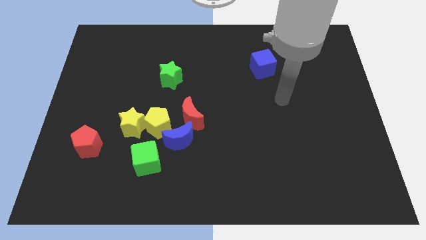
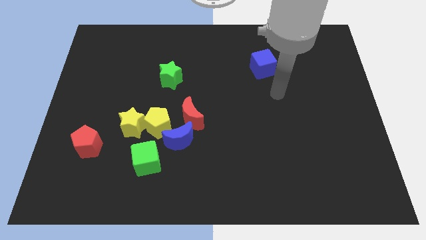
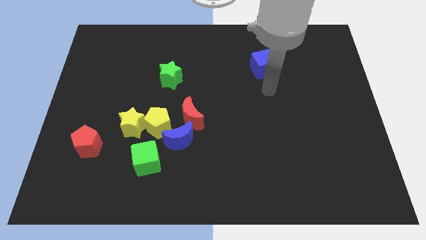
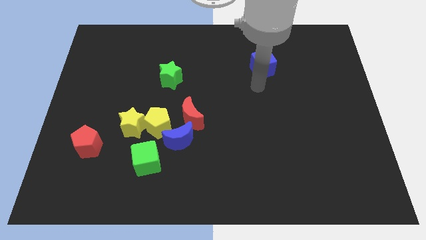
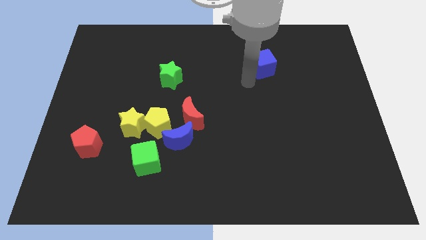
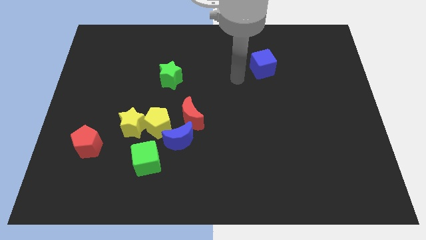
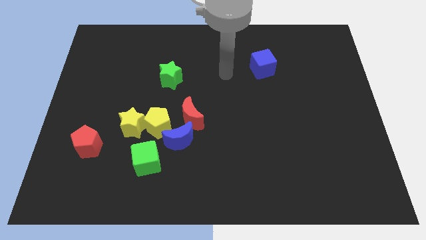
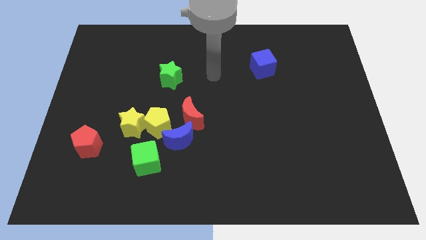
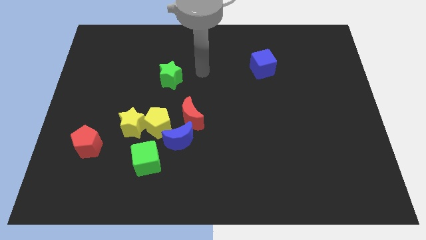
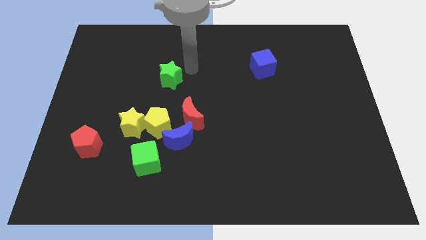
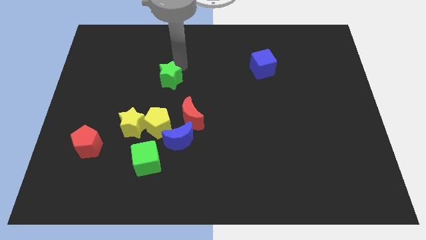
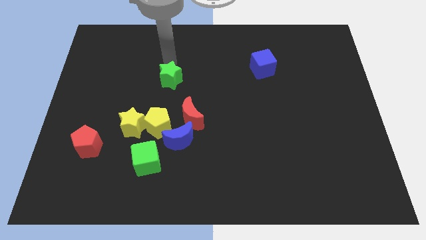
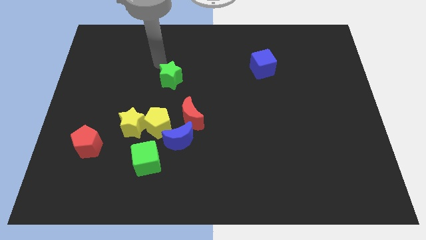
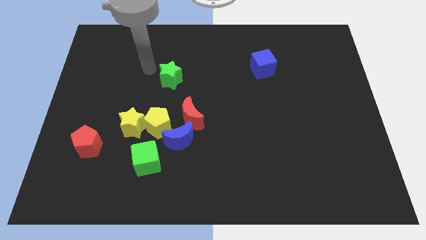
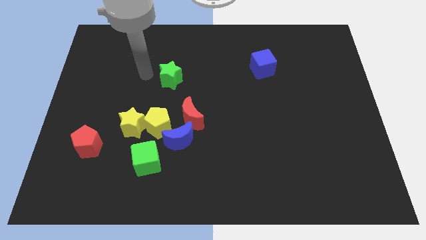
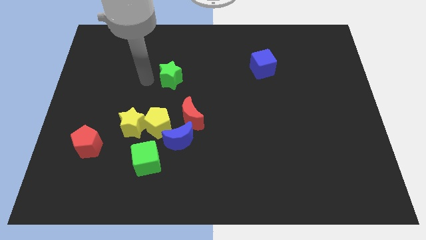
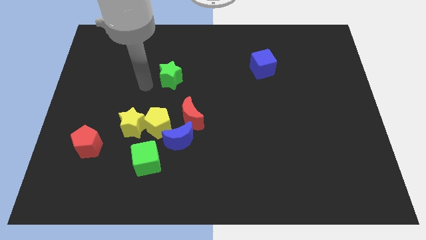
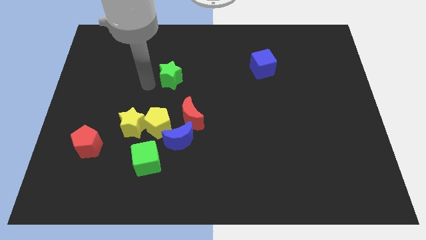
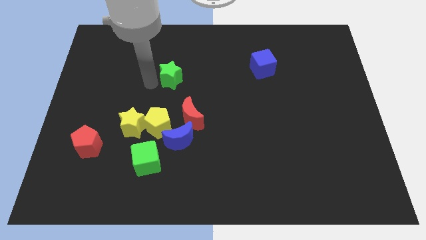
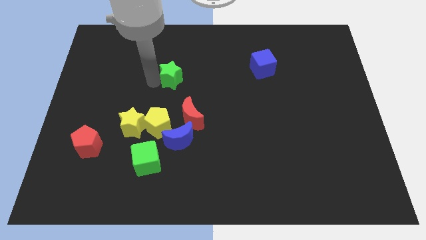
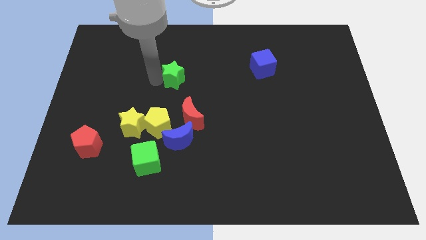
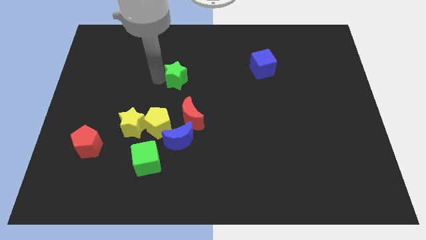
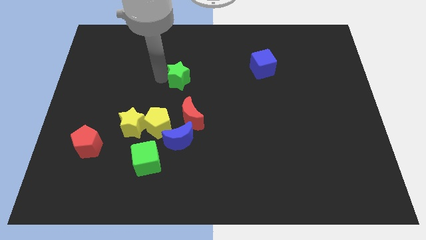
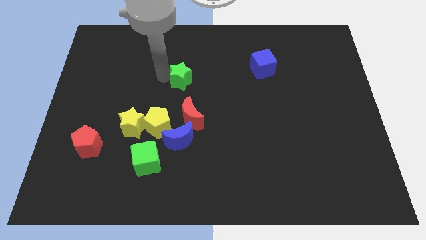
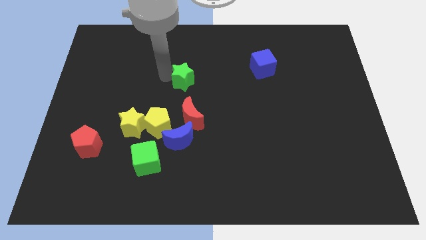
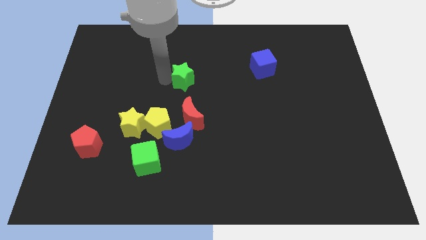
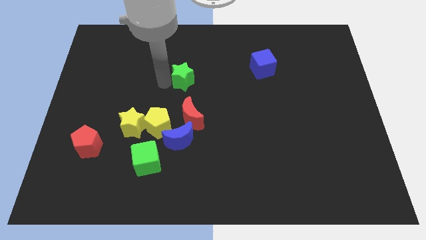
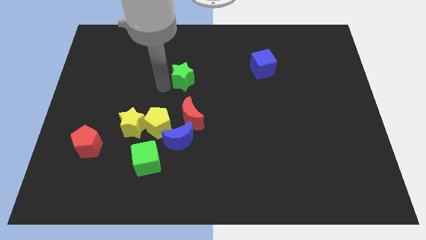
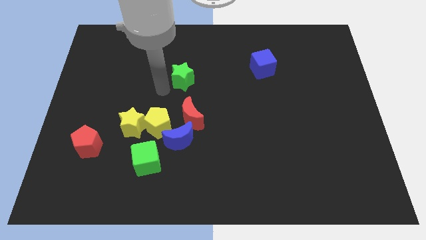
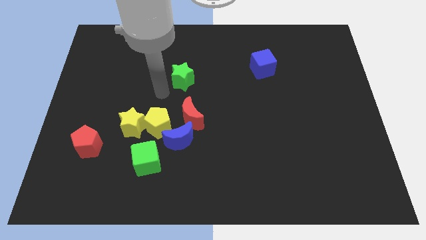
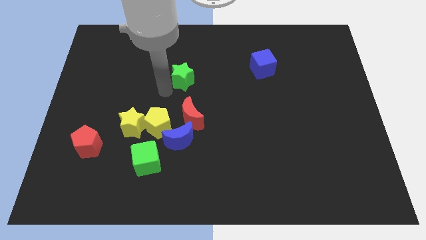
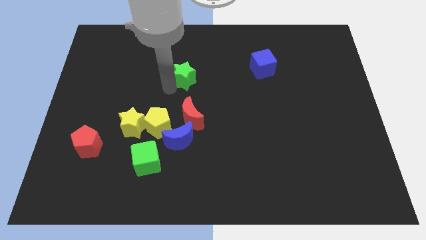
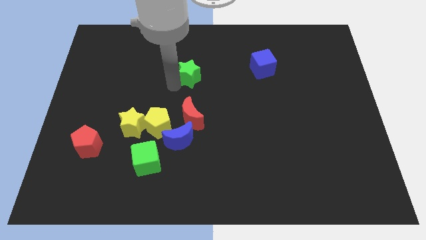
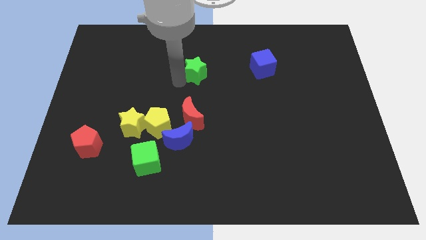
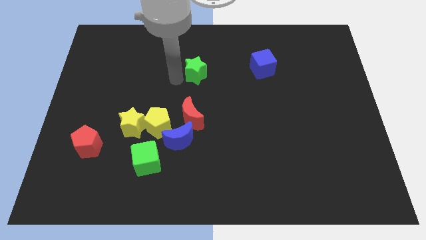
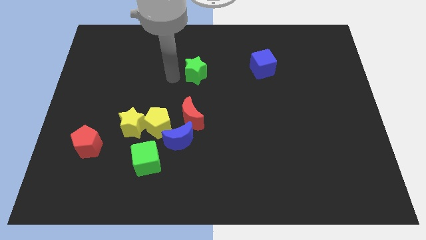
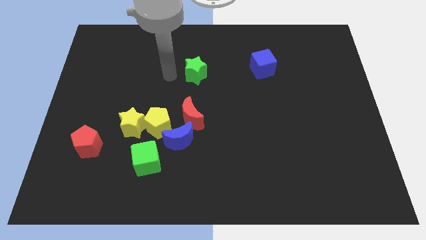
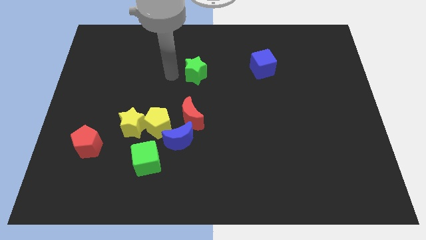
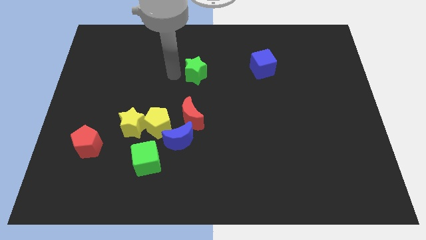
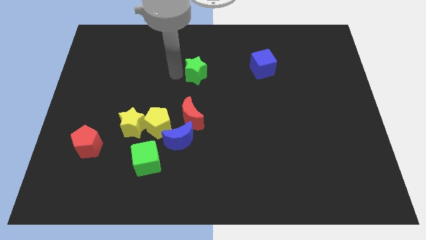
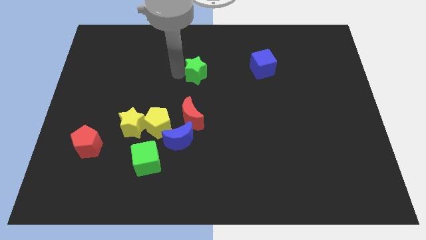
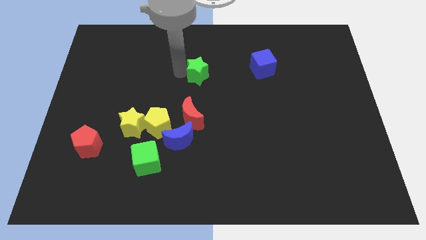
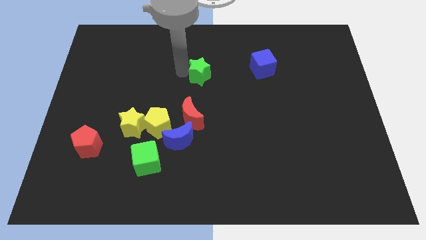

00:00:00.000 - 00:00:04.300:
slide the green star right a little bit

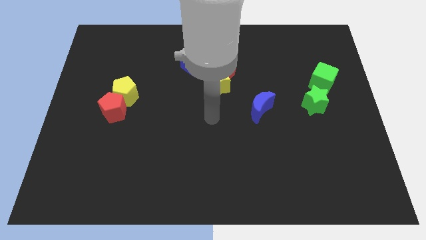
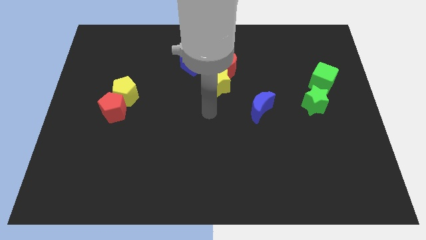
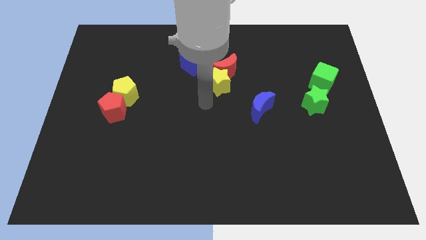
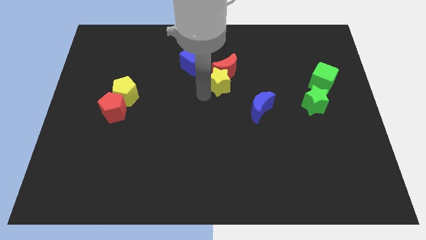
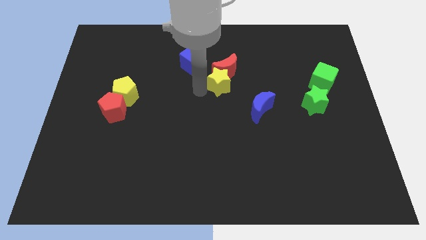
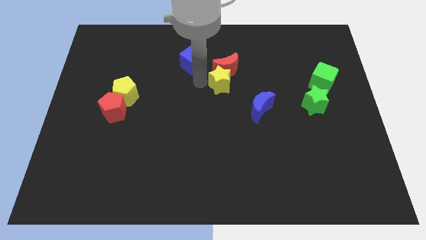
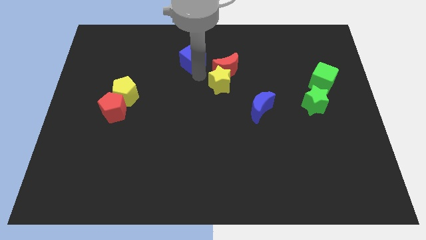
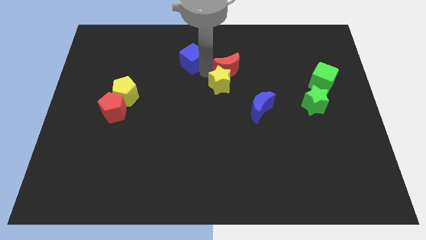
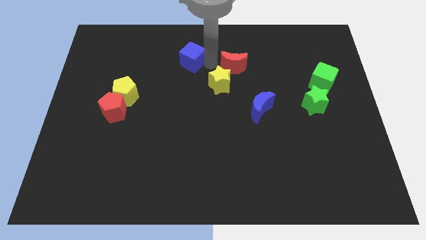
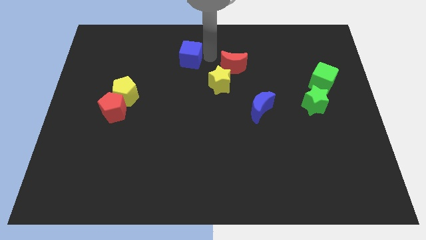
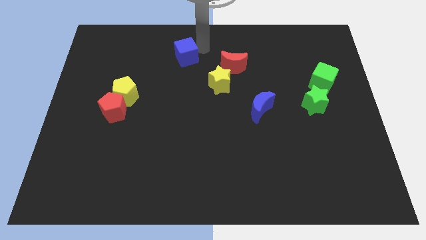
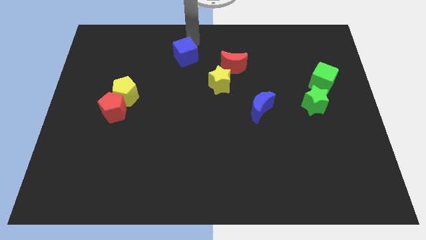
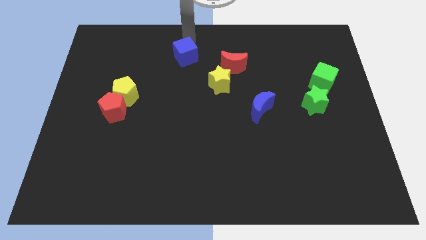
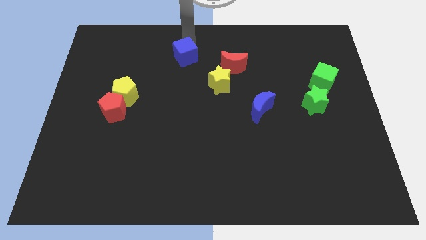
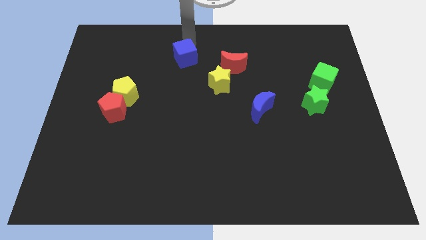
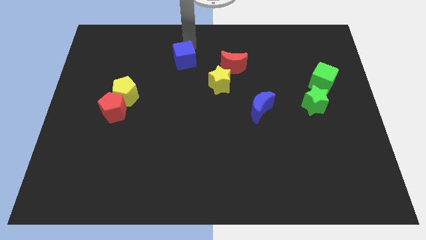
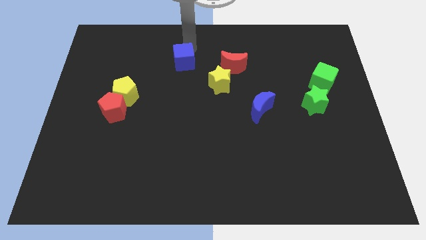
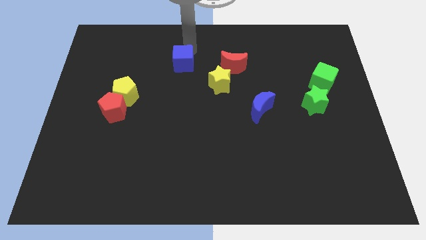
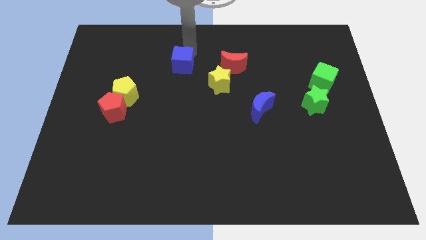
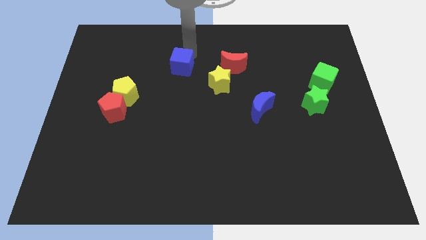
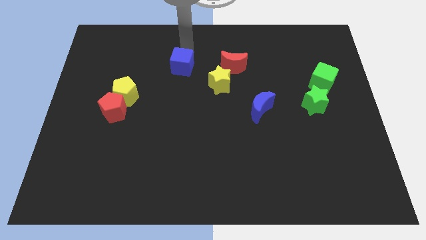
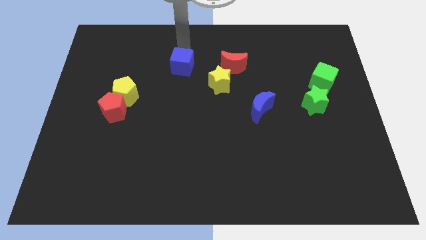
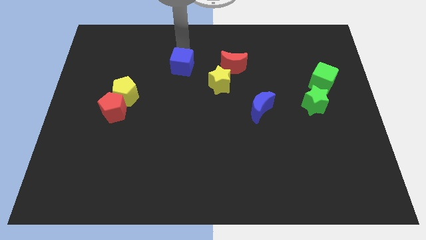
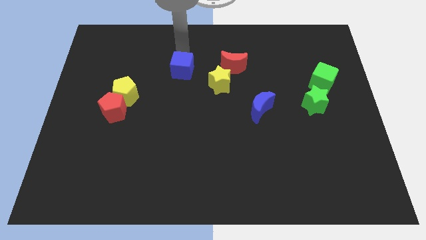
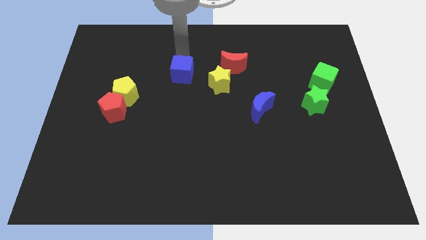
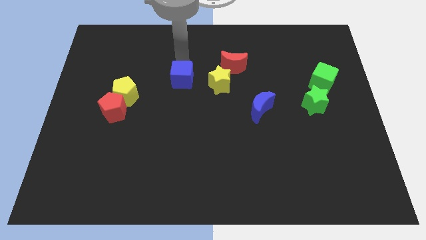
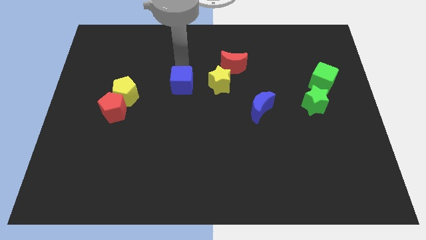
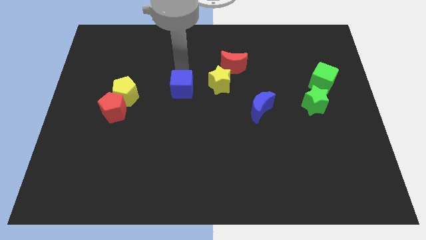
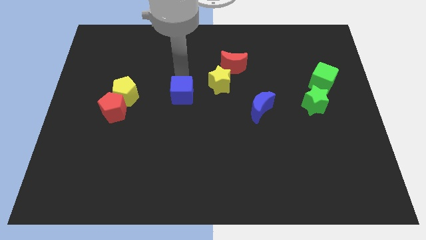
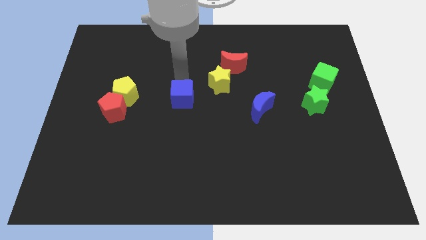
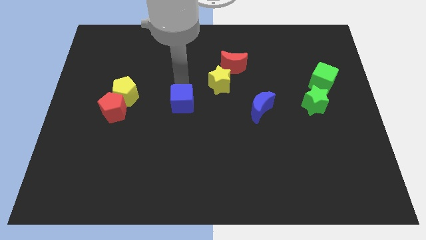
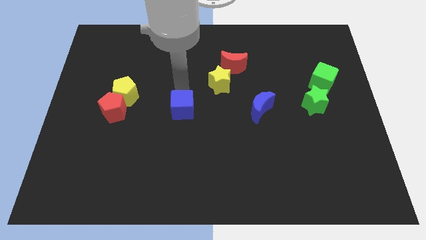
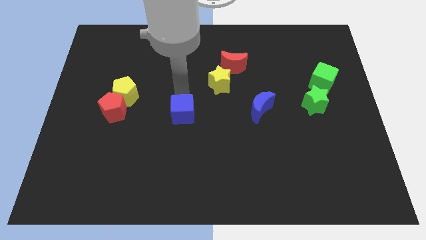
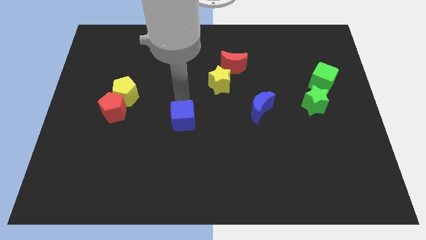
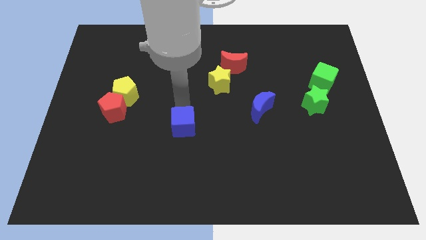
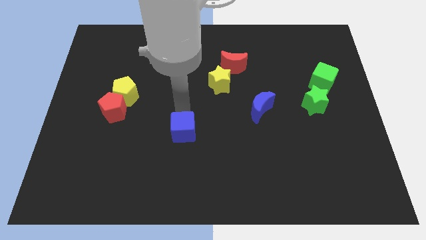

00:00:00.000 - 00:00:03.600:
push the blue cube downwards

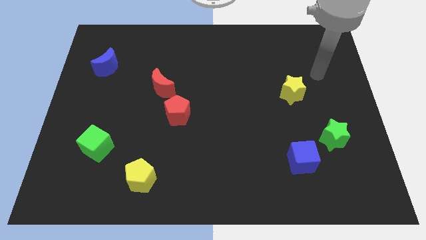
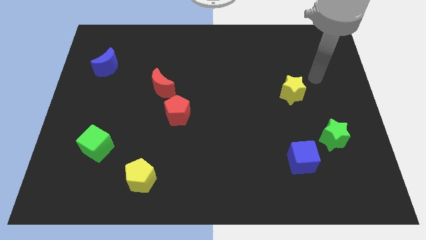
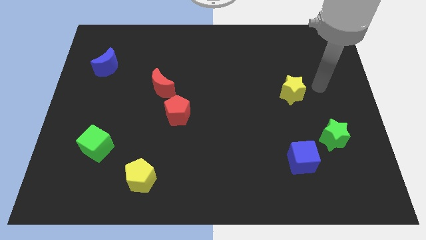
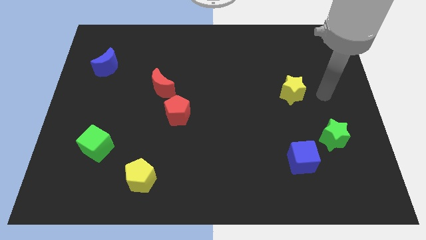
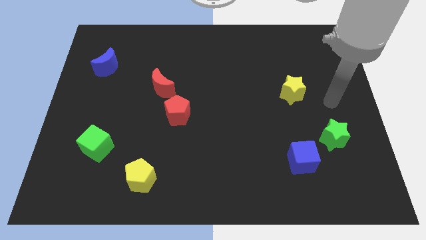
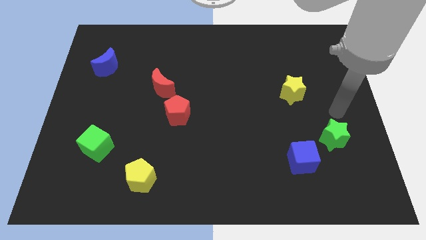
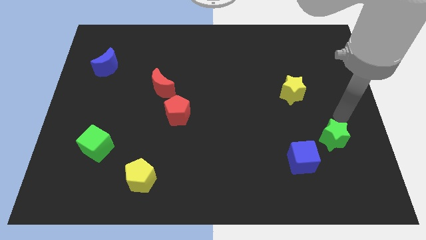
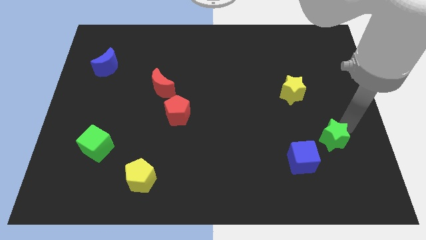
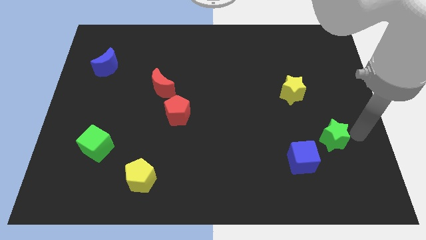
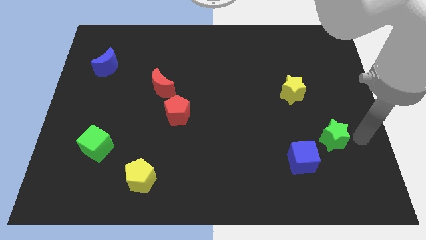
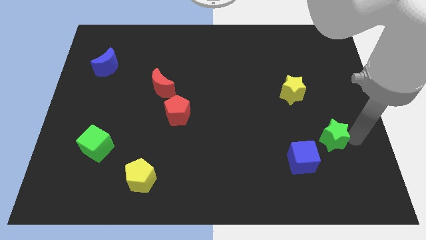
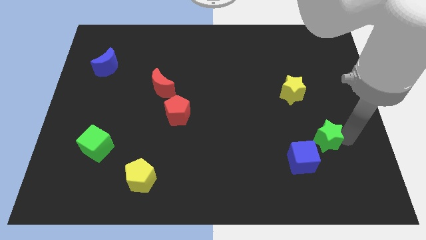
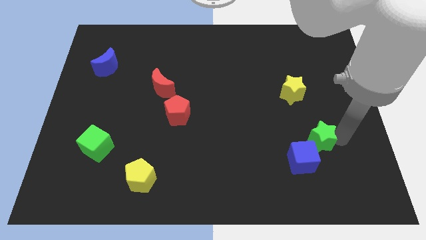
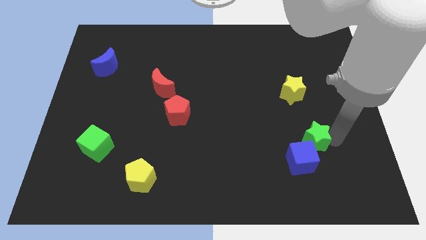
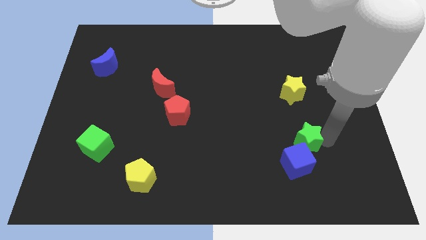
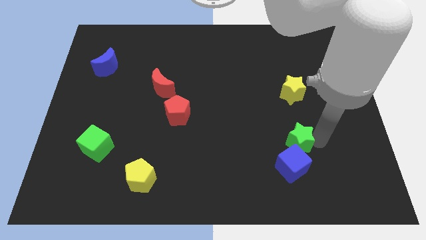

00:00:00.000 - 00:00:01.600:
move the green star left slightly
